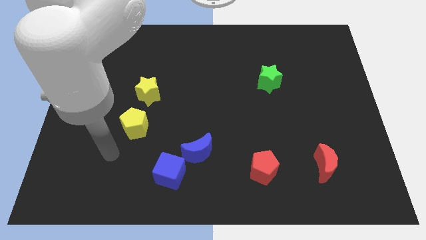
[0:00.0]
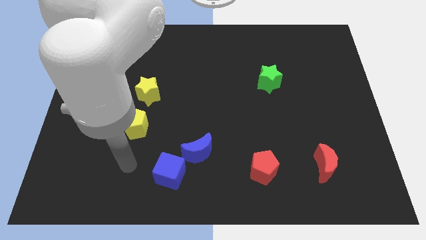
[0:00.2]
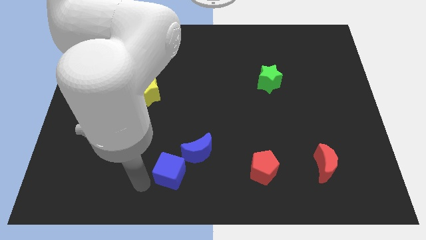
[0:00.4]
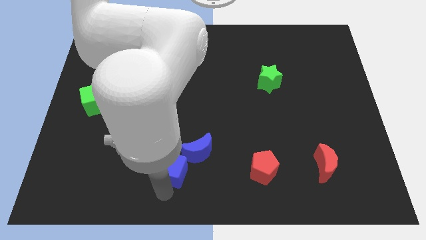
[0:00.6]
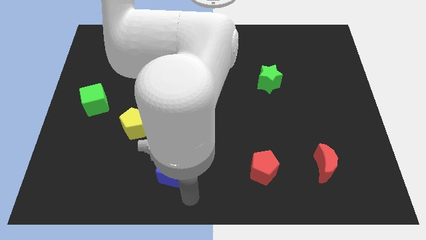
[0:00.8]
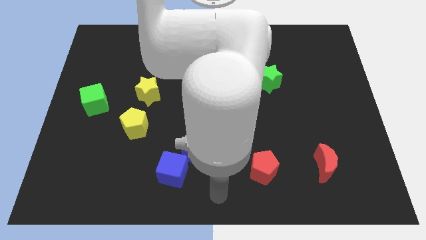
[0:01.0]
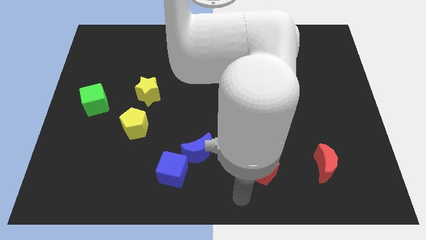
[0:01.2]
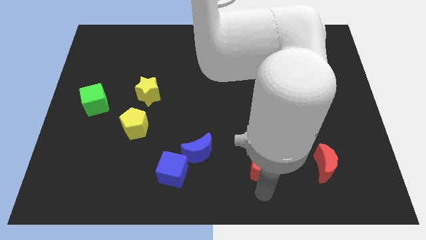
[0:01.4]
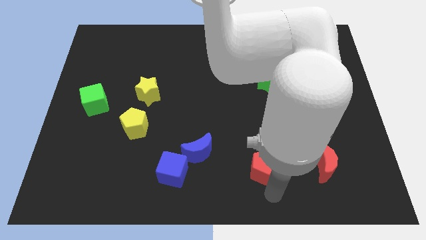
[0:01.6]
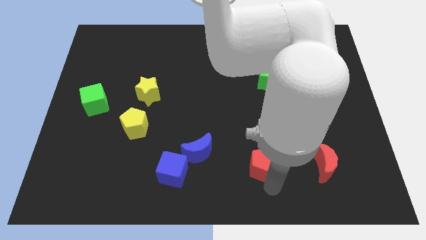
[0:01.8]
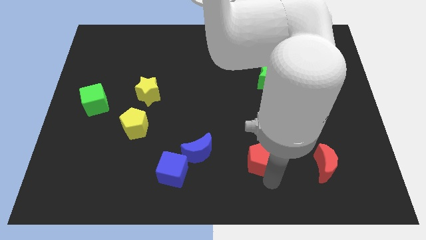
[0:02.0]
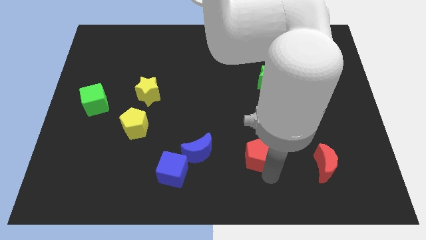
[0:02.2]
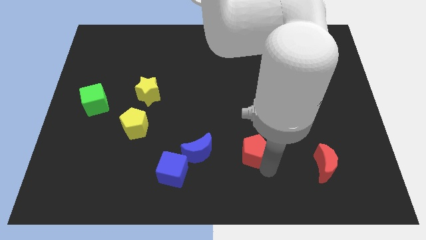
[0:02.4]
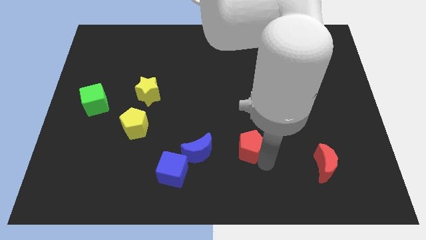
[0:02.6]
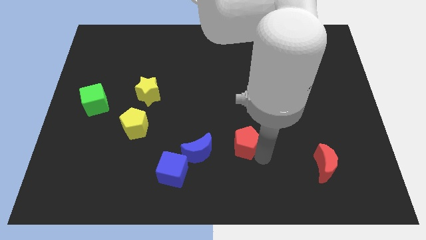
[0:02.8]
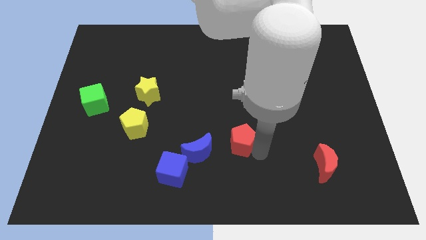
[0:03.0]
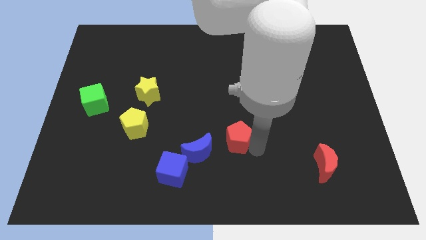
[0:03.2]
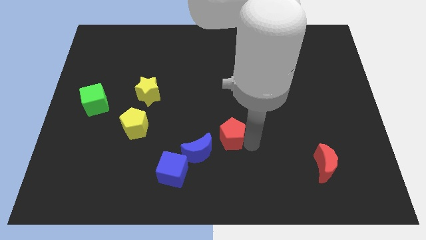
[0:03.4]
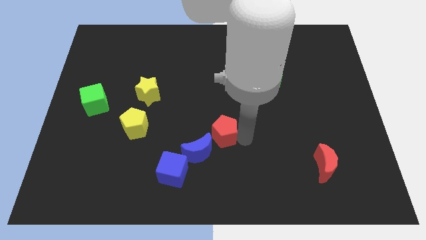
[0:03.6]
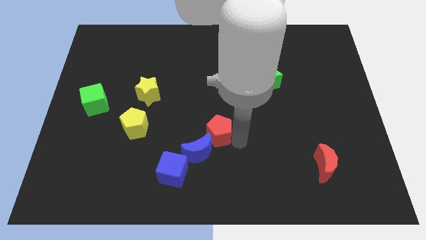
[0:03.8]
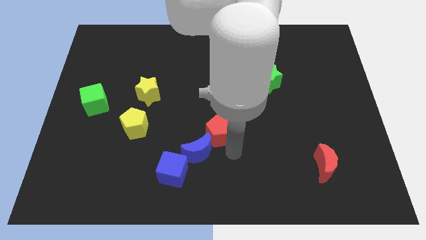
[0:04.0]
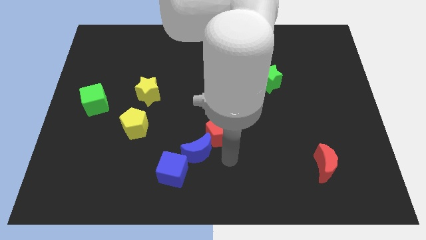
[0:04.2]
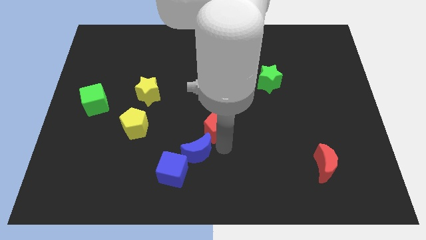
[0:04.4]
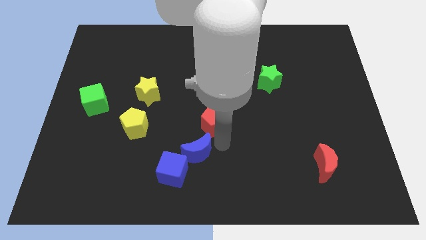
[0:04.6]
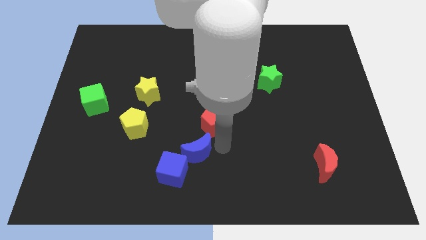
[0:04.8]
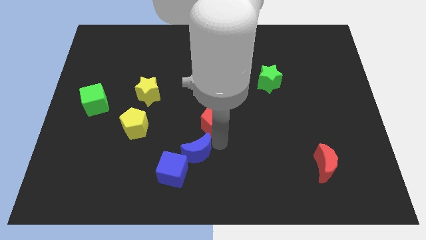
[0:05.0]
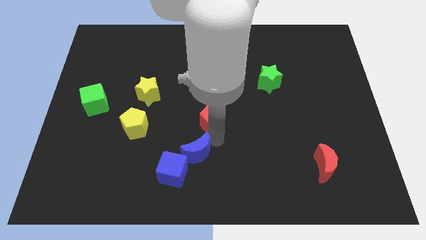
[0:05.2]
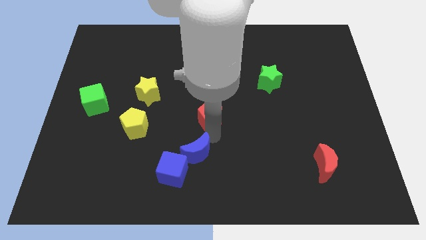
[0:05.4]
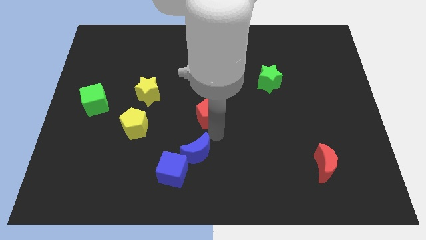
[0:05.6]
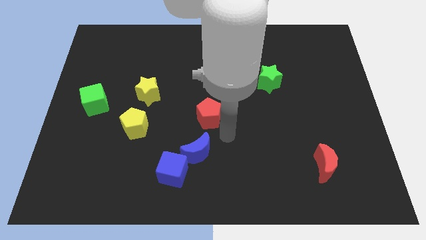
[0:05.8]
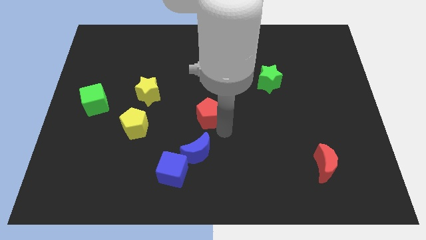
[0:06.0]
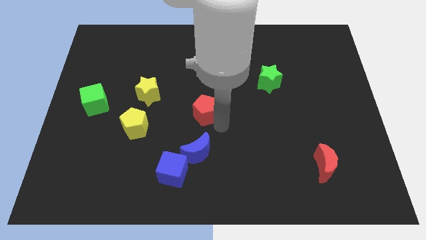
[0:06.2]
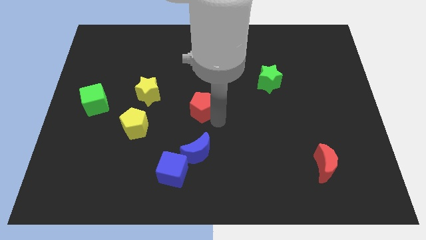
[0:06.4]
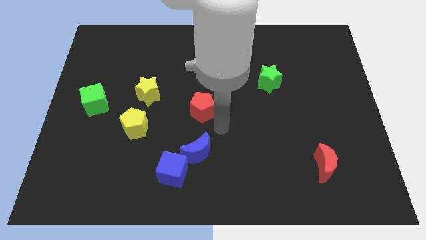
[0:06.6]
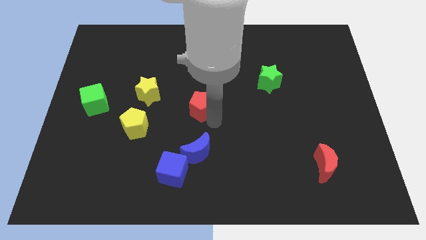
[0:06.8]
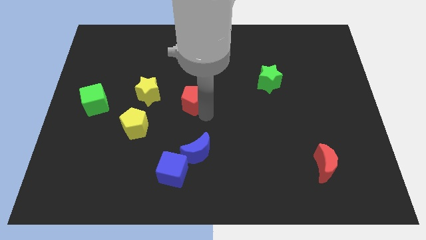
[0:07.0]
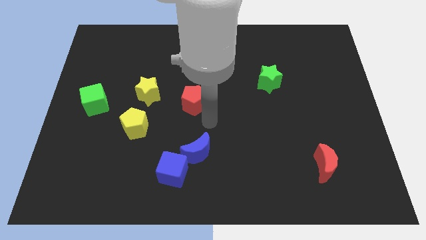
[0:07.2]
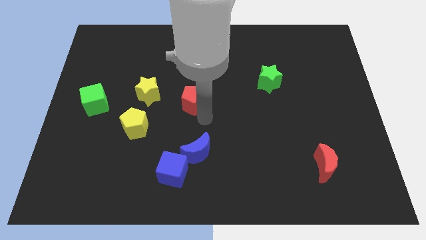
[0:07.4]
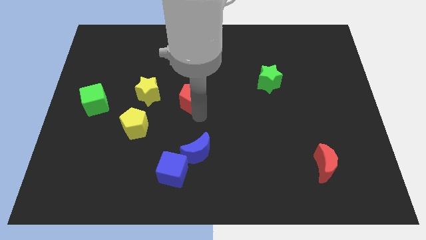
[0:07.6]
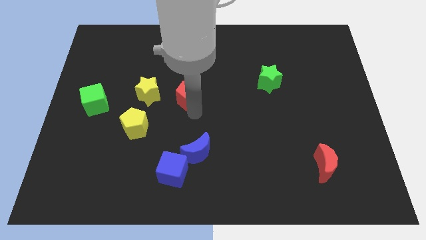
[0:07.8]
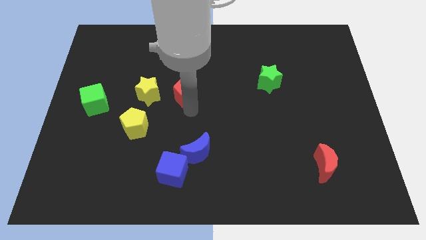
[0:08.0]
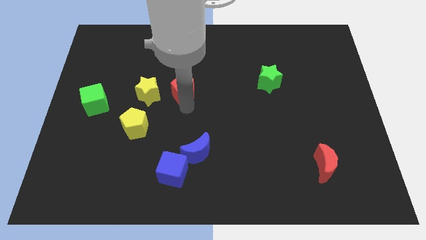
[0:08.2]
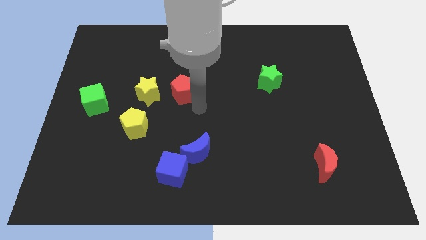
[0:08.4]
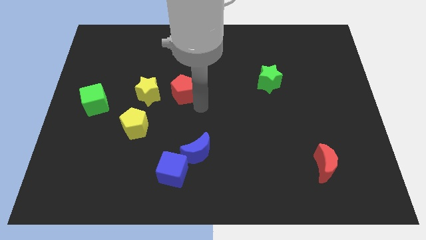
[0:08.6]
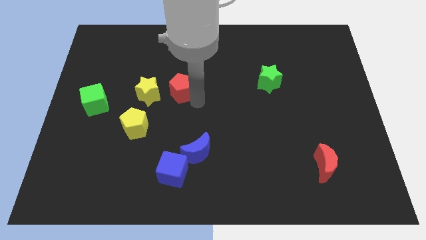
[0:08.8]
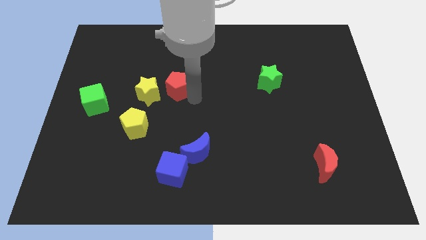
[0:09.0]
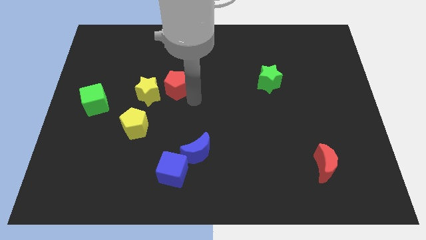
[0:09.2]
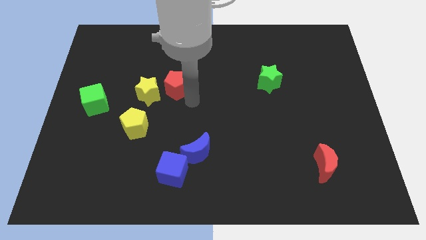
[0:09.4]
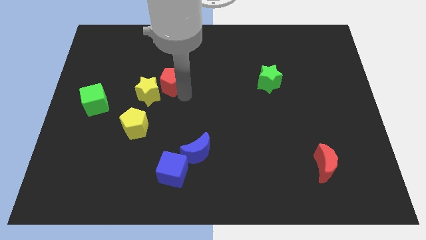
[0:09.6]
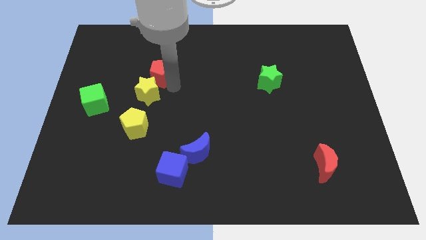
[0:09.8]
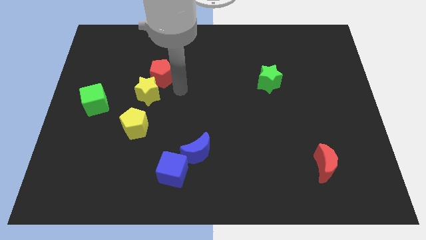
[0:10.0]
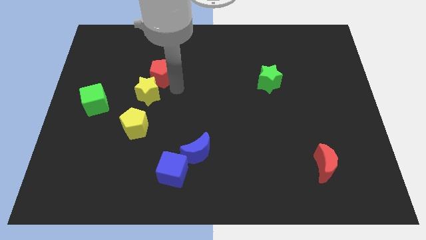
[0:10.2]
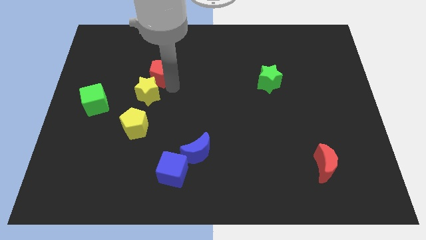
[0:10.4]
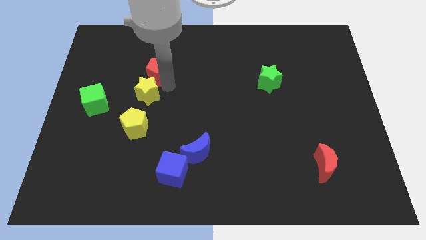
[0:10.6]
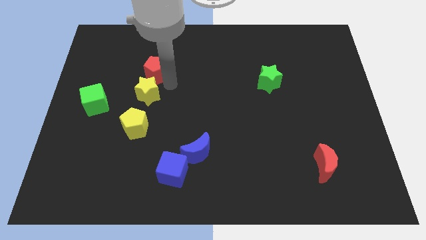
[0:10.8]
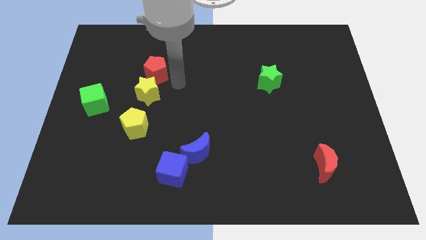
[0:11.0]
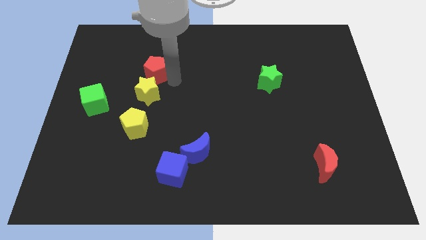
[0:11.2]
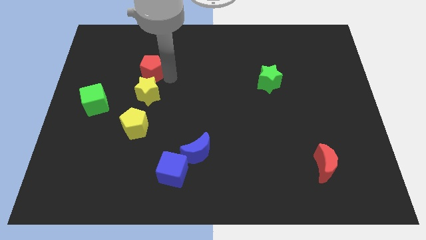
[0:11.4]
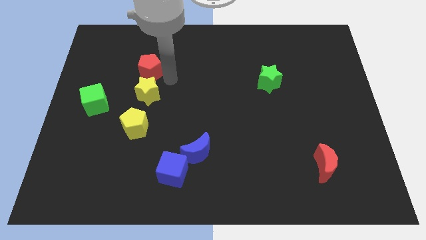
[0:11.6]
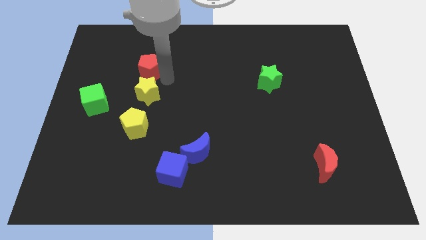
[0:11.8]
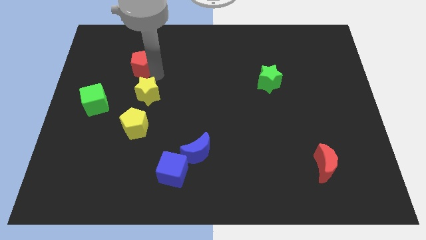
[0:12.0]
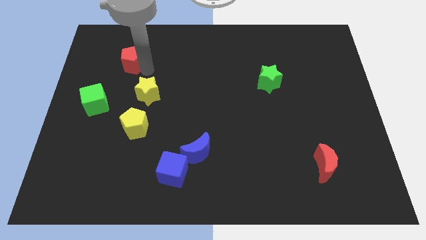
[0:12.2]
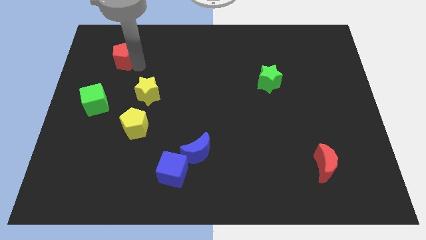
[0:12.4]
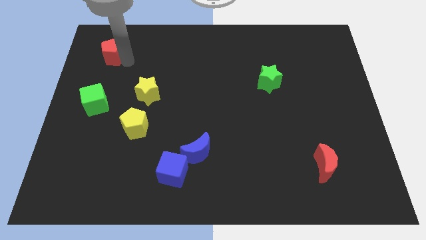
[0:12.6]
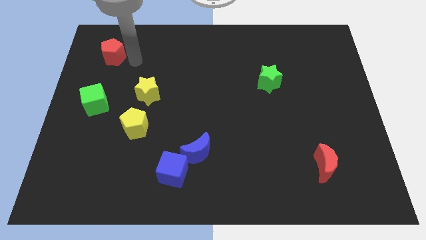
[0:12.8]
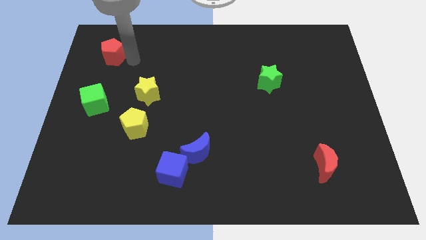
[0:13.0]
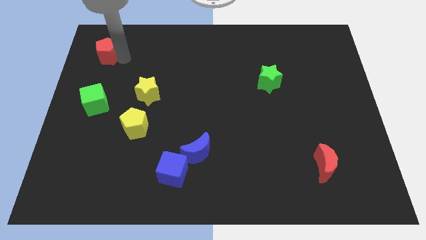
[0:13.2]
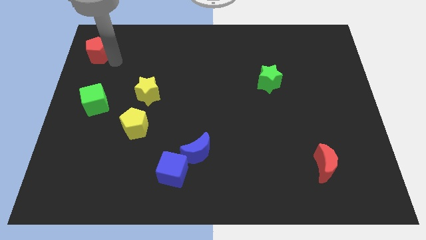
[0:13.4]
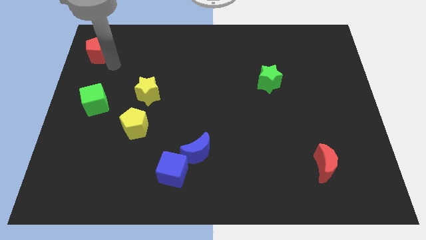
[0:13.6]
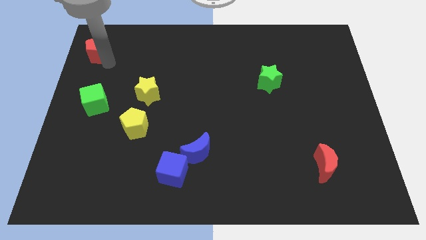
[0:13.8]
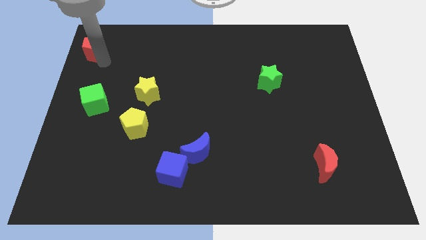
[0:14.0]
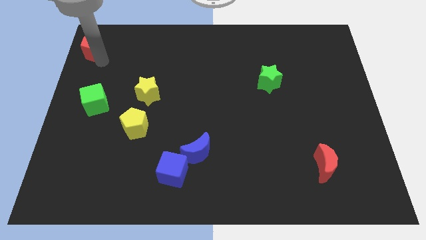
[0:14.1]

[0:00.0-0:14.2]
push the red pentagon to the top left
